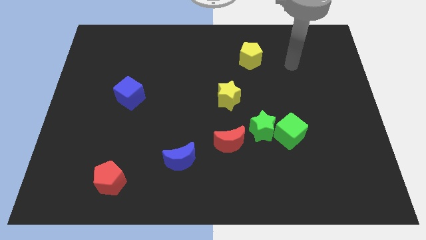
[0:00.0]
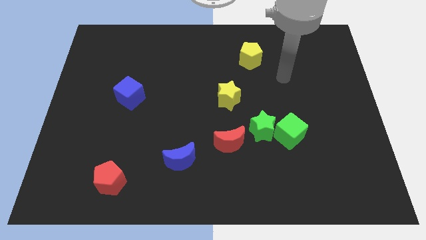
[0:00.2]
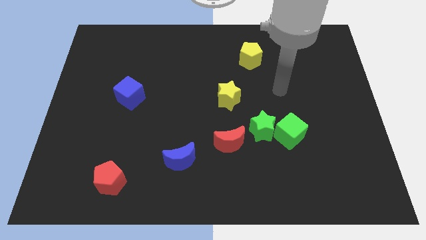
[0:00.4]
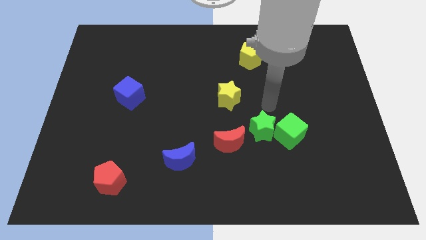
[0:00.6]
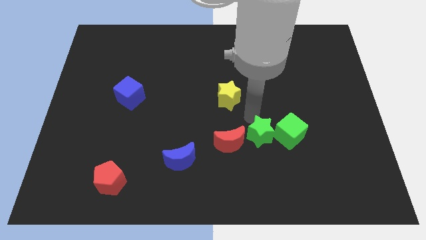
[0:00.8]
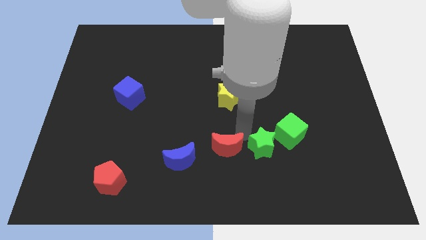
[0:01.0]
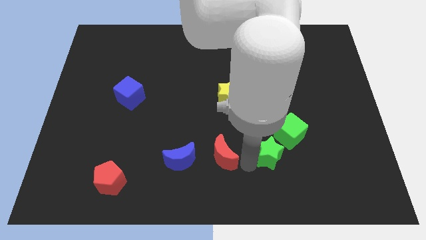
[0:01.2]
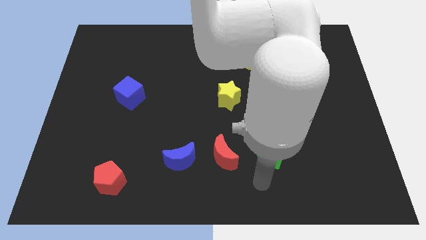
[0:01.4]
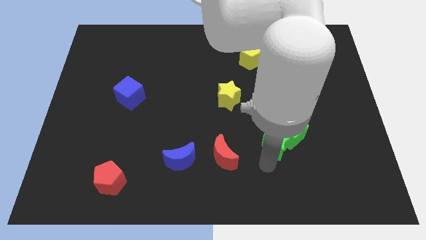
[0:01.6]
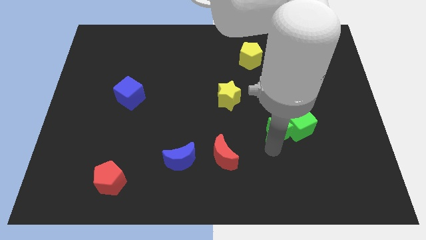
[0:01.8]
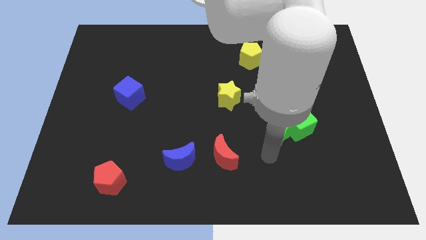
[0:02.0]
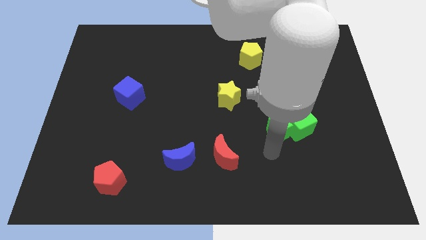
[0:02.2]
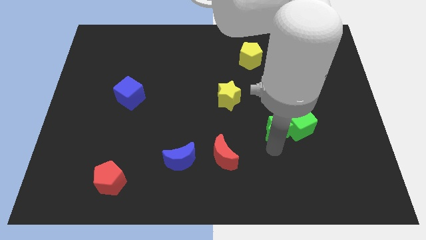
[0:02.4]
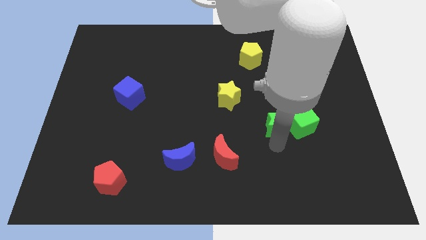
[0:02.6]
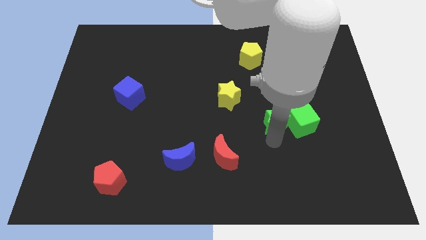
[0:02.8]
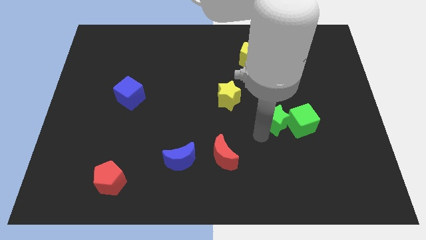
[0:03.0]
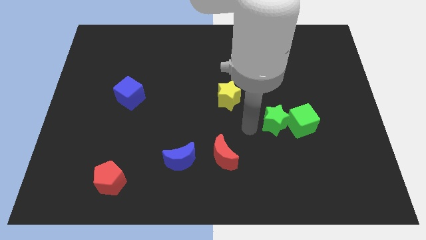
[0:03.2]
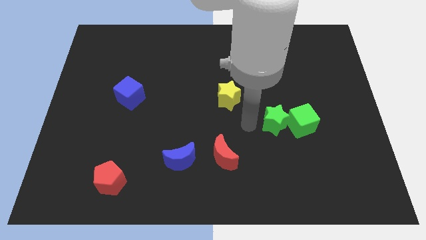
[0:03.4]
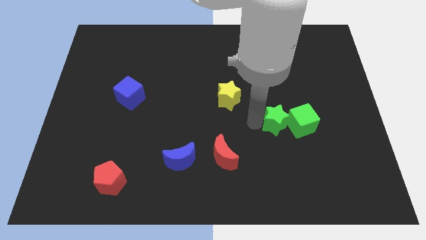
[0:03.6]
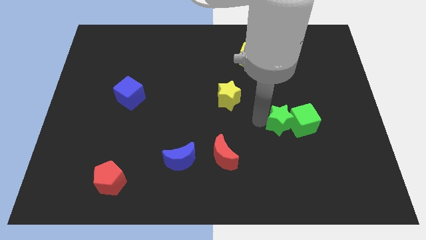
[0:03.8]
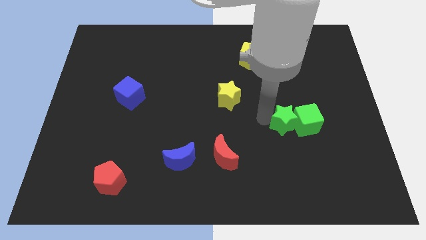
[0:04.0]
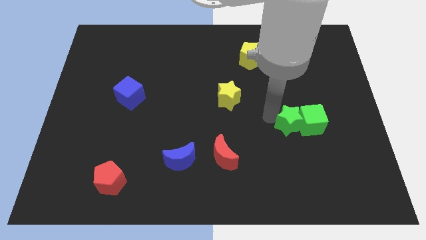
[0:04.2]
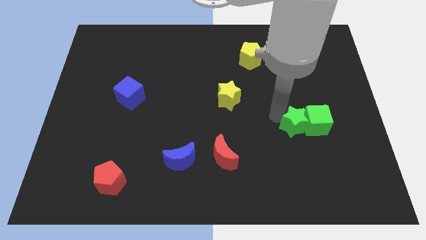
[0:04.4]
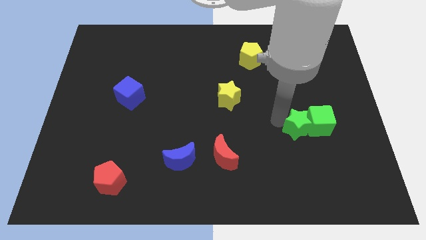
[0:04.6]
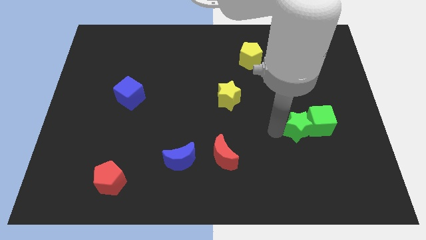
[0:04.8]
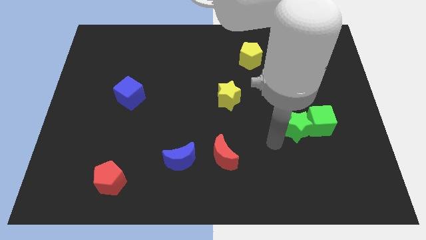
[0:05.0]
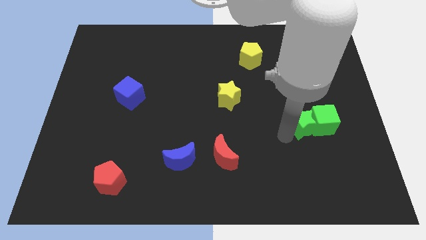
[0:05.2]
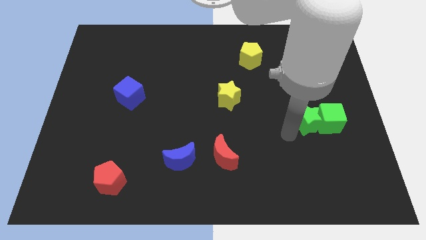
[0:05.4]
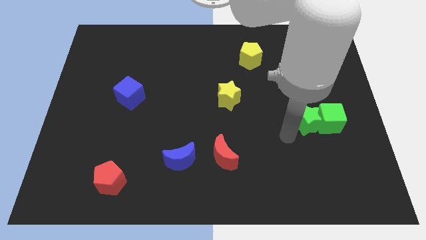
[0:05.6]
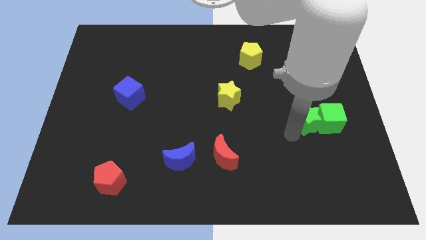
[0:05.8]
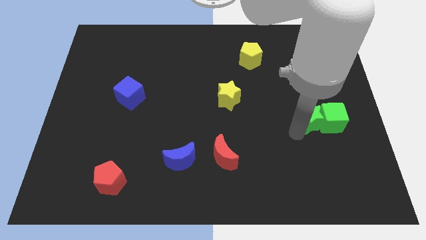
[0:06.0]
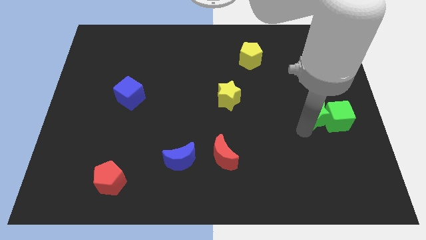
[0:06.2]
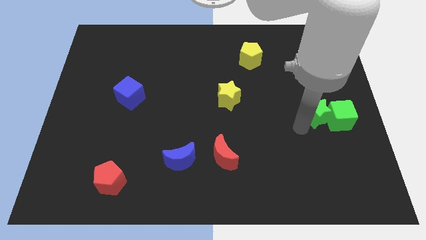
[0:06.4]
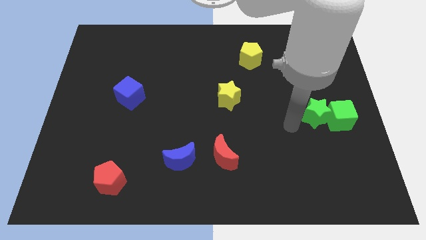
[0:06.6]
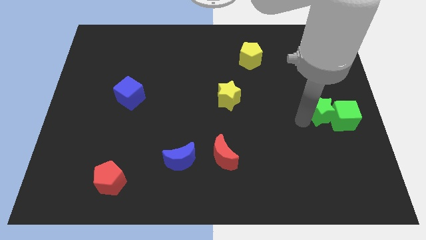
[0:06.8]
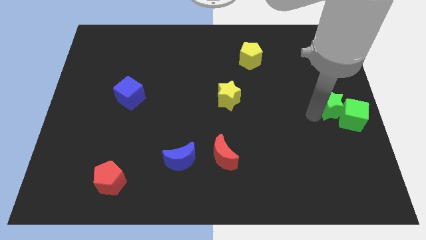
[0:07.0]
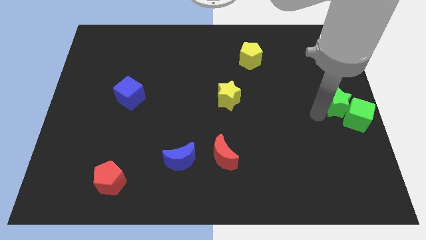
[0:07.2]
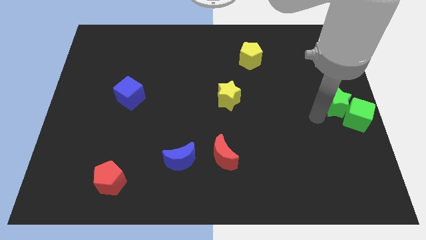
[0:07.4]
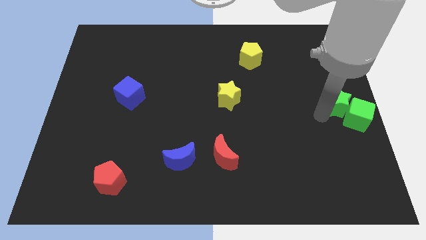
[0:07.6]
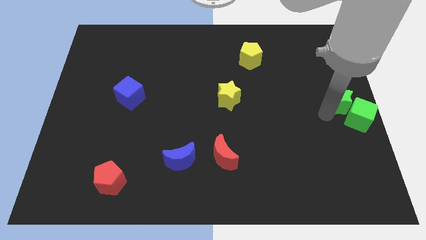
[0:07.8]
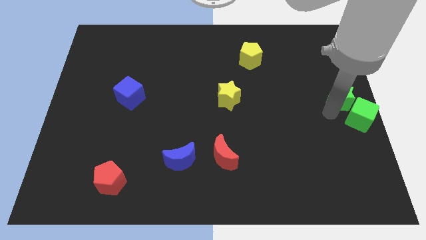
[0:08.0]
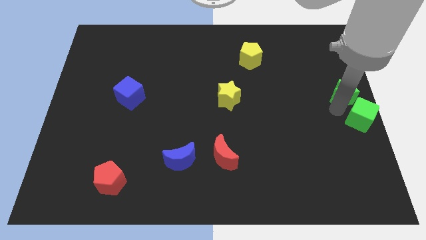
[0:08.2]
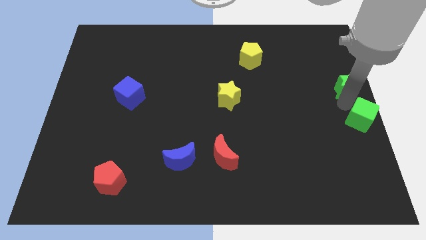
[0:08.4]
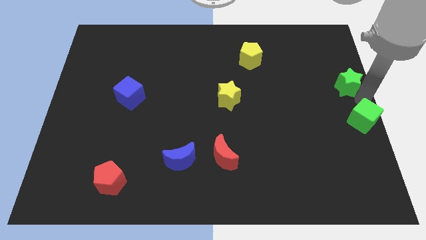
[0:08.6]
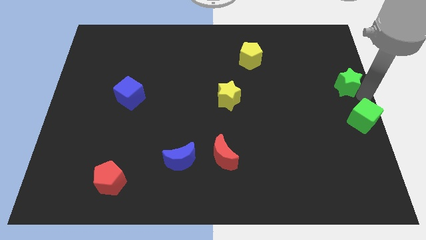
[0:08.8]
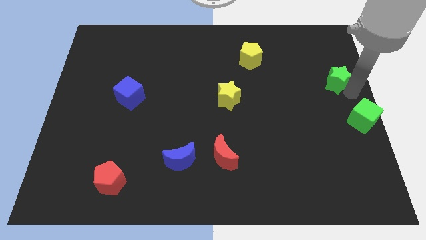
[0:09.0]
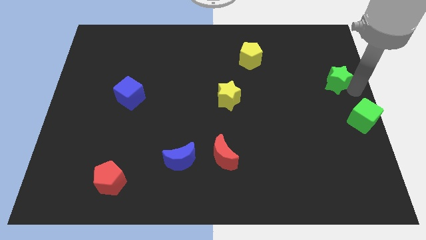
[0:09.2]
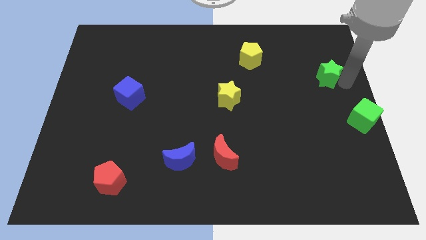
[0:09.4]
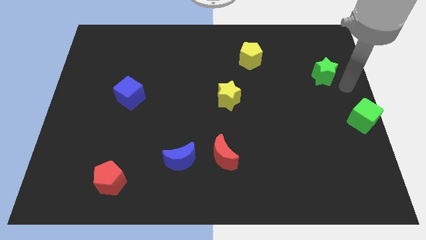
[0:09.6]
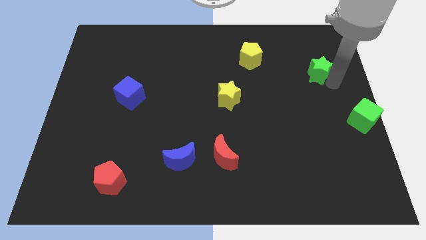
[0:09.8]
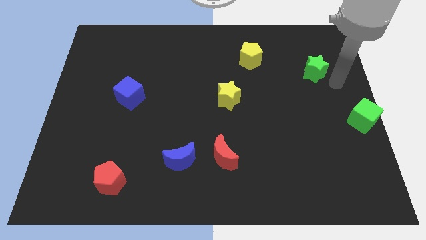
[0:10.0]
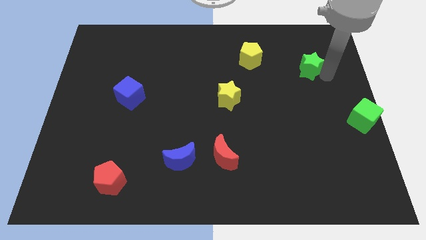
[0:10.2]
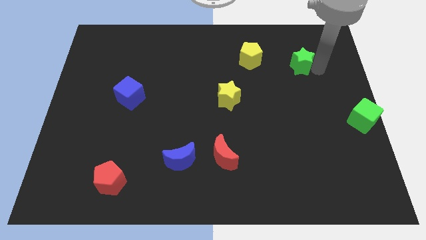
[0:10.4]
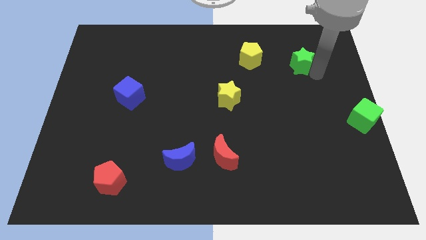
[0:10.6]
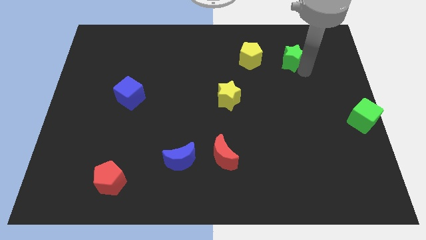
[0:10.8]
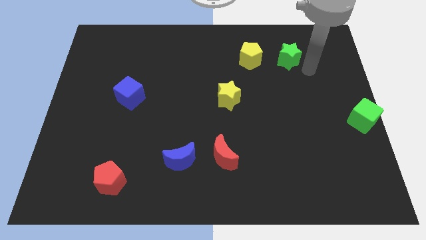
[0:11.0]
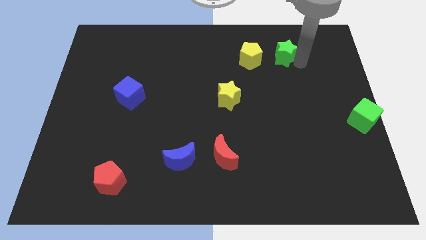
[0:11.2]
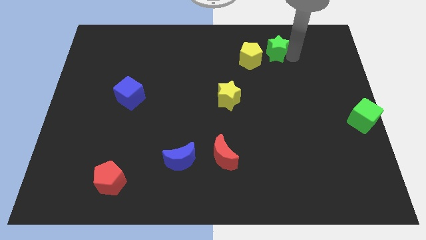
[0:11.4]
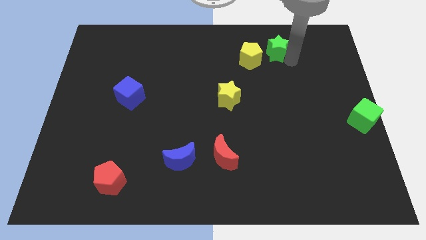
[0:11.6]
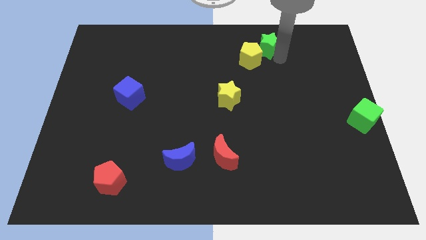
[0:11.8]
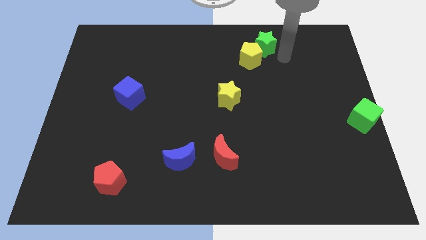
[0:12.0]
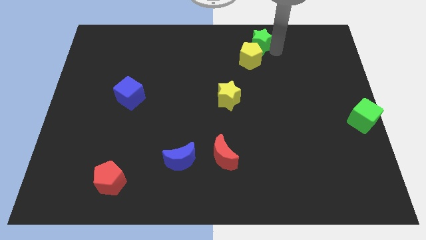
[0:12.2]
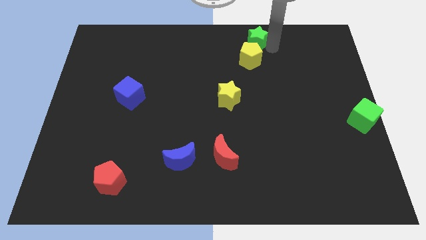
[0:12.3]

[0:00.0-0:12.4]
move the green star to the top

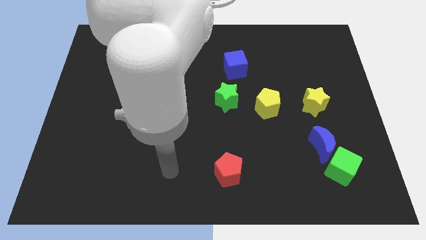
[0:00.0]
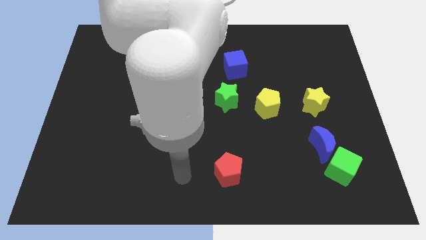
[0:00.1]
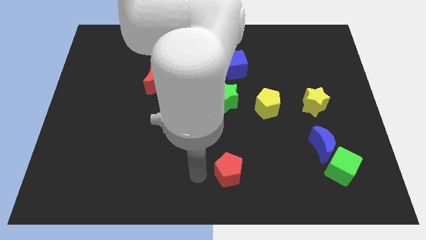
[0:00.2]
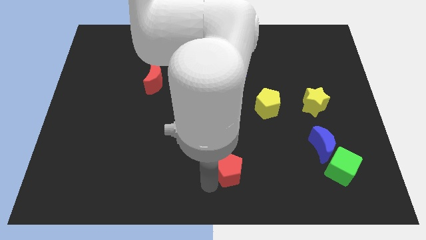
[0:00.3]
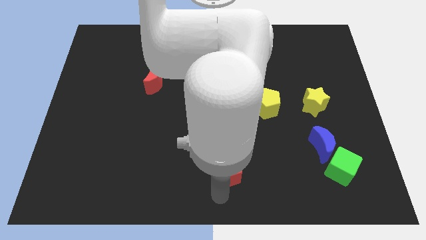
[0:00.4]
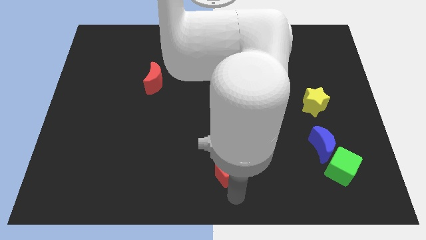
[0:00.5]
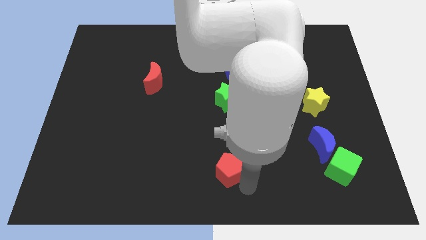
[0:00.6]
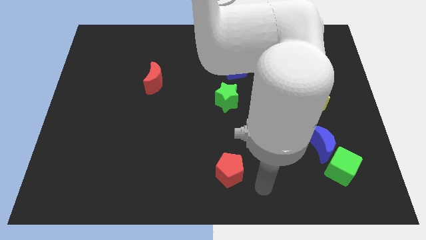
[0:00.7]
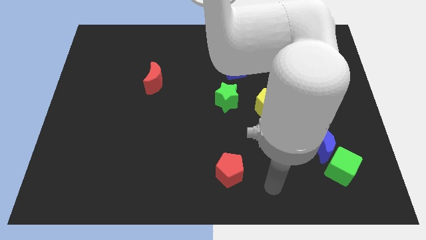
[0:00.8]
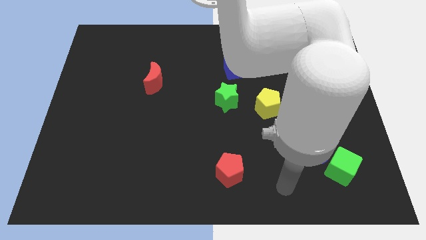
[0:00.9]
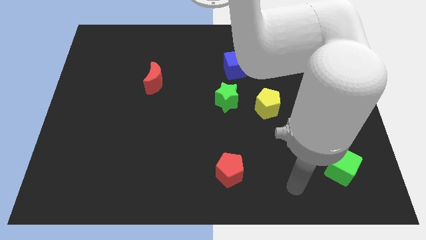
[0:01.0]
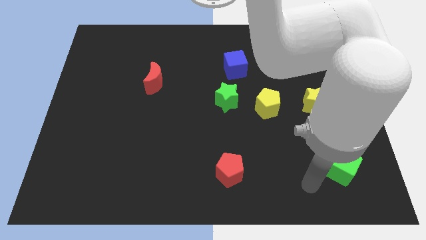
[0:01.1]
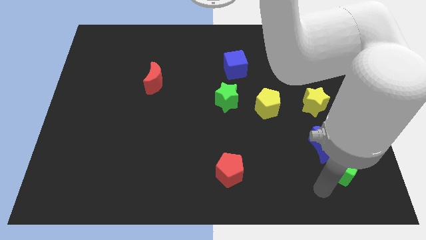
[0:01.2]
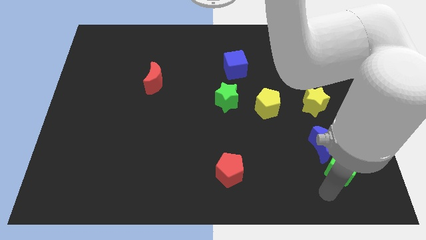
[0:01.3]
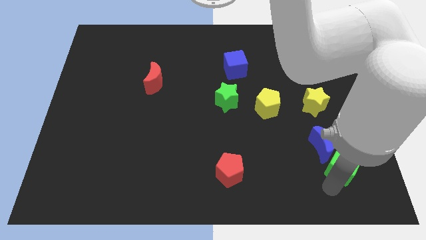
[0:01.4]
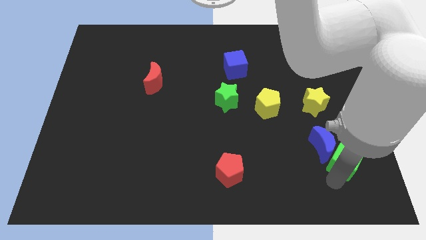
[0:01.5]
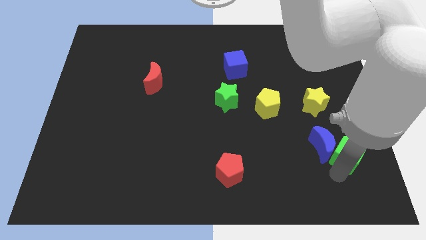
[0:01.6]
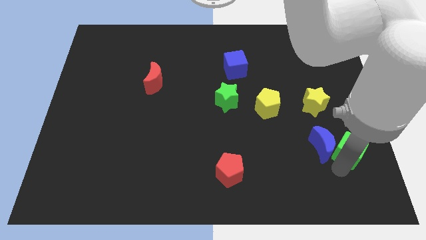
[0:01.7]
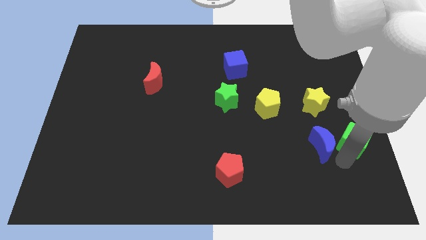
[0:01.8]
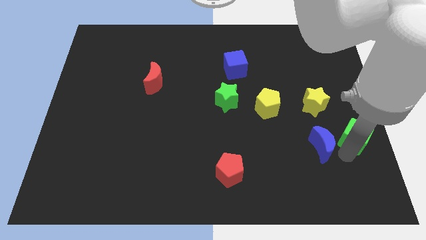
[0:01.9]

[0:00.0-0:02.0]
slide the green cube to the right side of the board
